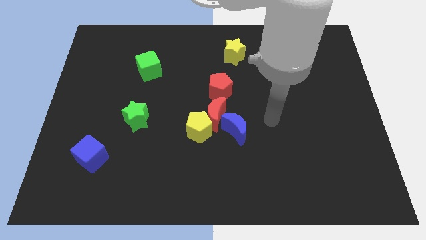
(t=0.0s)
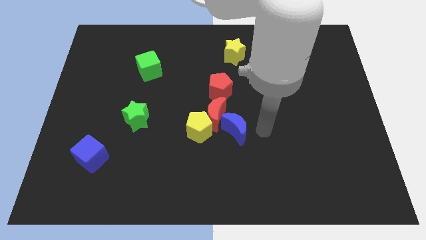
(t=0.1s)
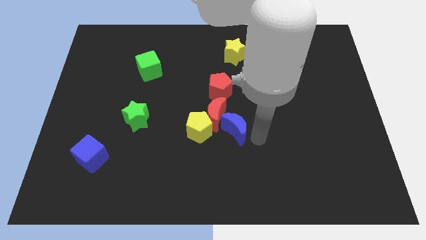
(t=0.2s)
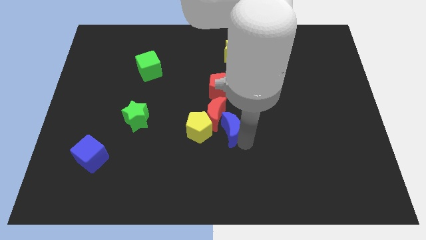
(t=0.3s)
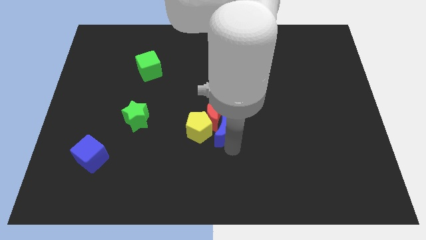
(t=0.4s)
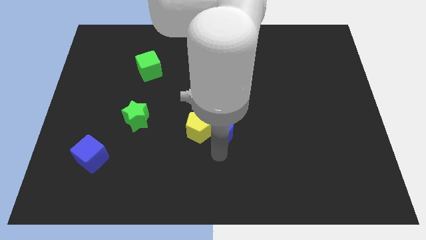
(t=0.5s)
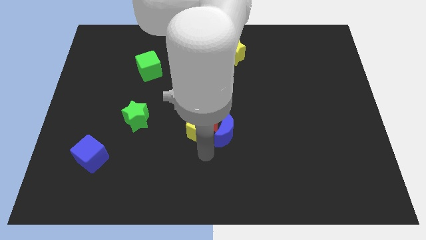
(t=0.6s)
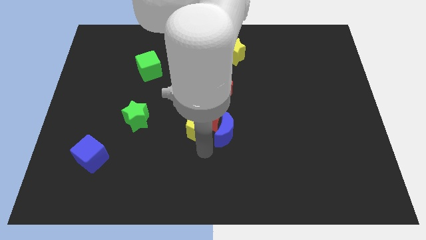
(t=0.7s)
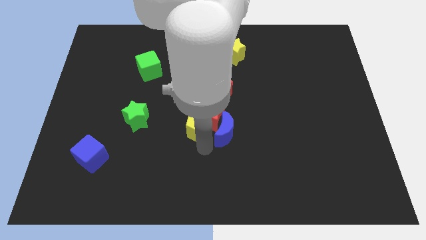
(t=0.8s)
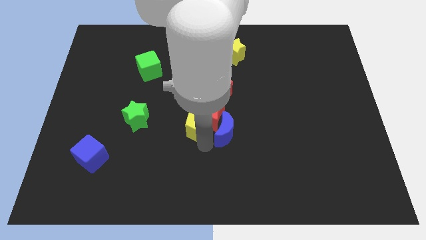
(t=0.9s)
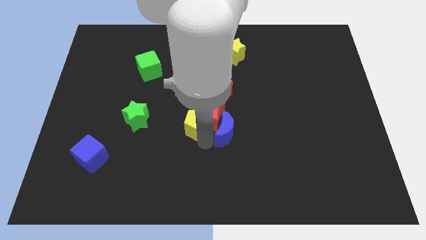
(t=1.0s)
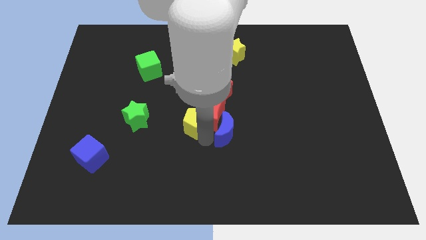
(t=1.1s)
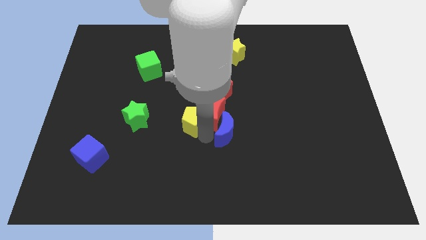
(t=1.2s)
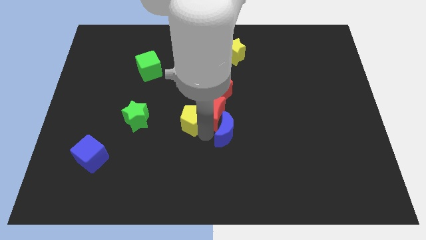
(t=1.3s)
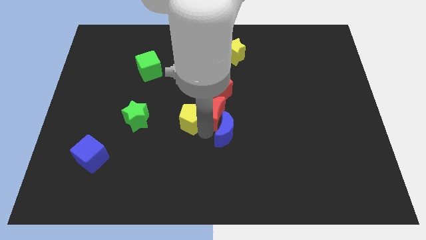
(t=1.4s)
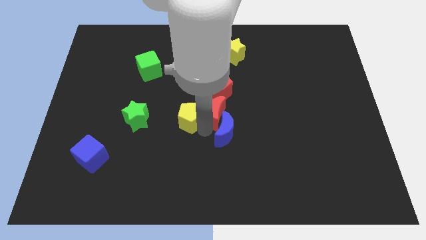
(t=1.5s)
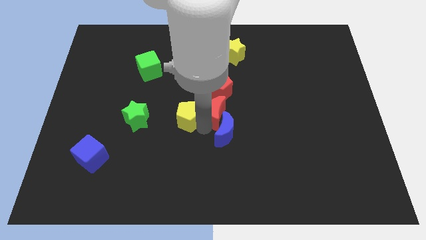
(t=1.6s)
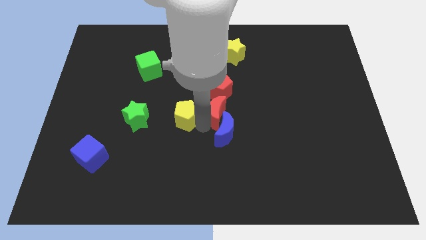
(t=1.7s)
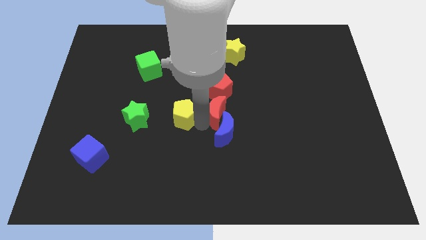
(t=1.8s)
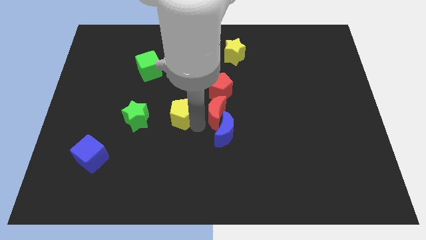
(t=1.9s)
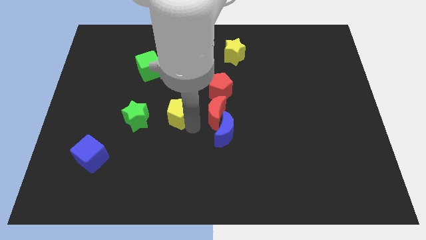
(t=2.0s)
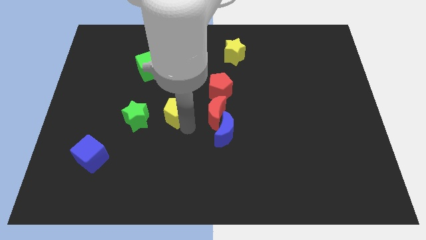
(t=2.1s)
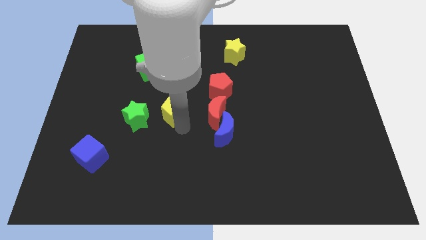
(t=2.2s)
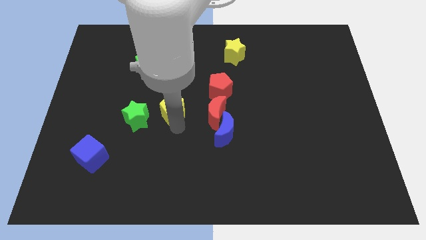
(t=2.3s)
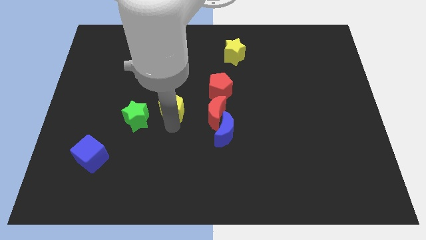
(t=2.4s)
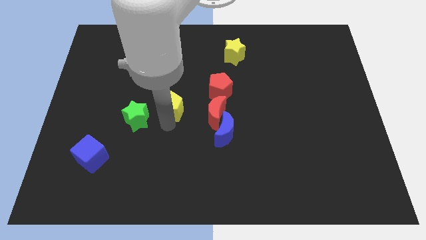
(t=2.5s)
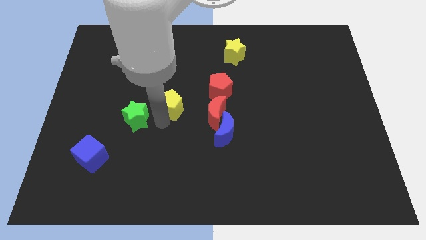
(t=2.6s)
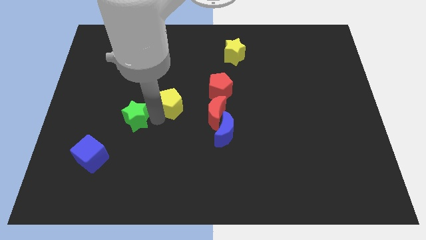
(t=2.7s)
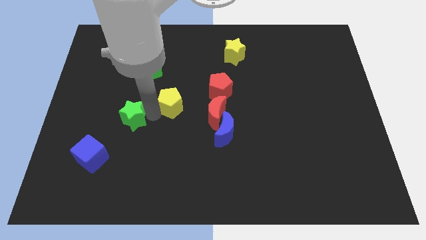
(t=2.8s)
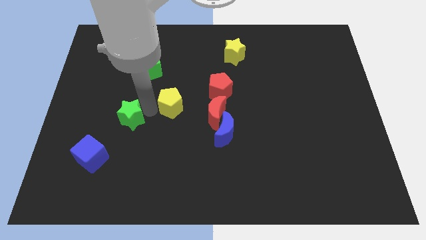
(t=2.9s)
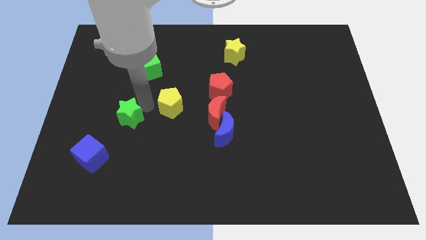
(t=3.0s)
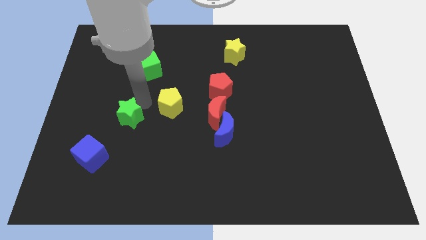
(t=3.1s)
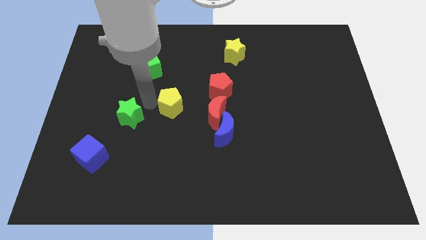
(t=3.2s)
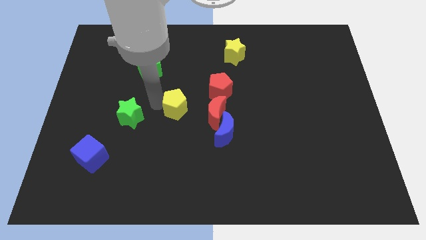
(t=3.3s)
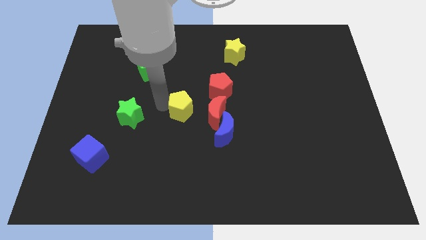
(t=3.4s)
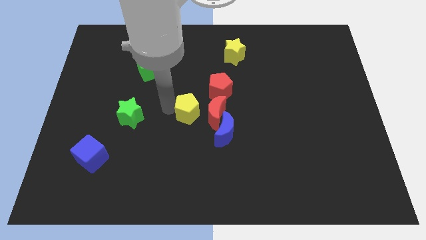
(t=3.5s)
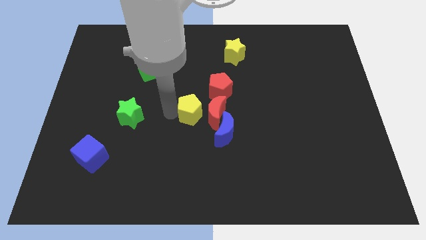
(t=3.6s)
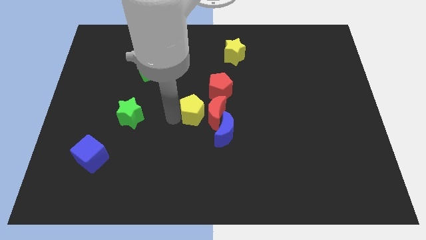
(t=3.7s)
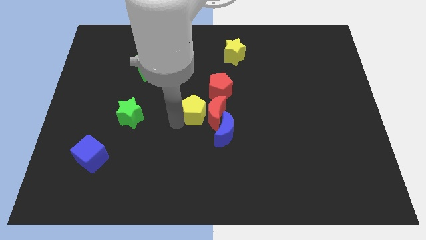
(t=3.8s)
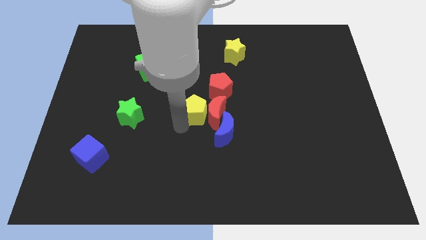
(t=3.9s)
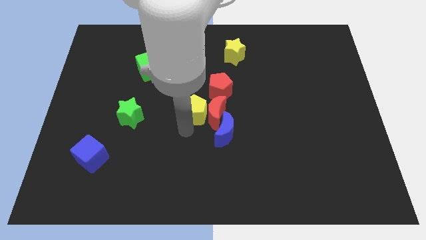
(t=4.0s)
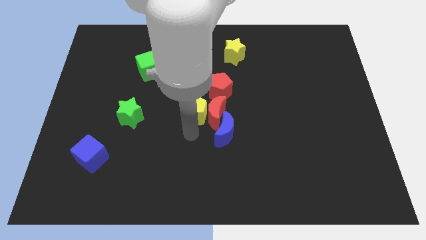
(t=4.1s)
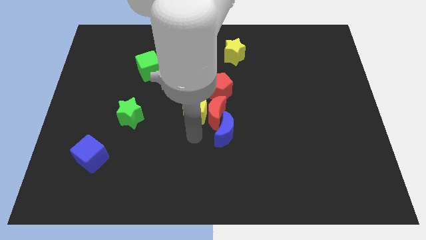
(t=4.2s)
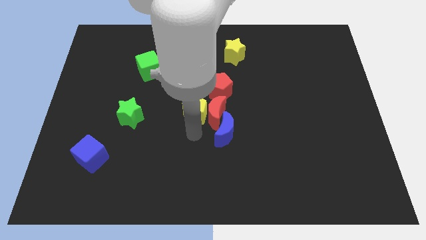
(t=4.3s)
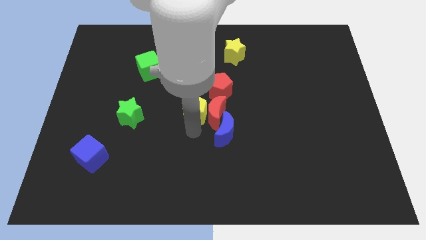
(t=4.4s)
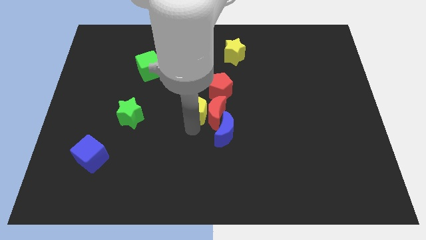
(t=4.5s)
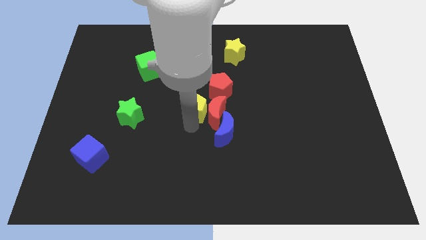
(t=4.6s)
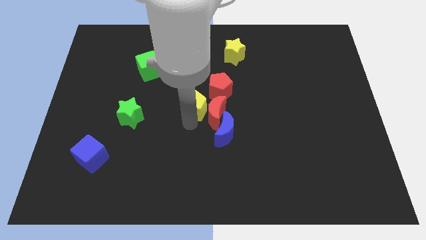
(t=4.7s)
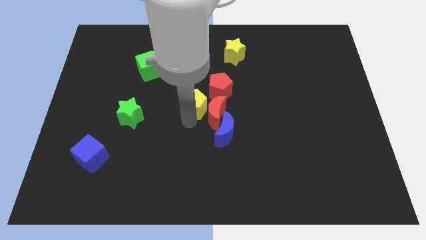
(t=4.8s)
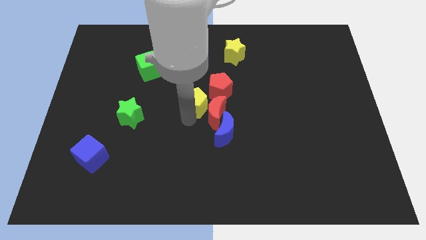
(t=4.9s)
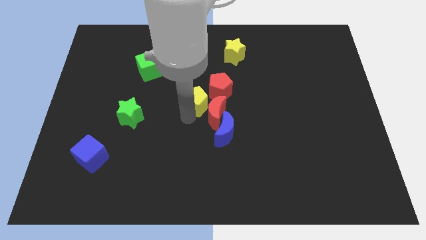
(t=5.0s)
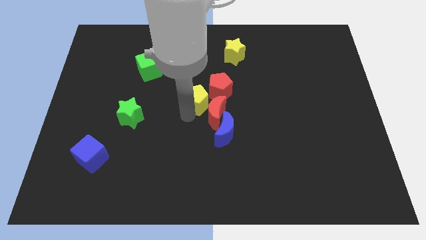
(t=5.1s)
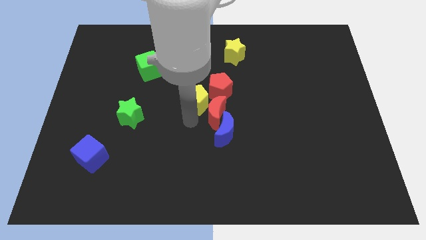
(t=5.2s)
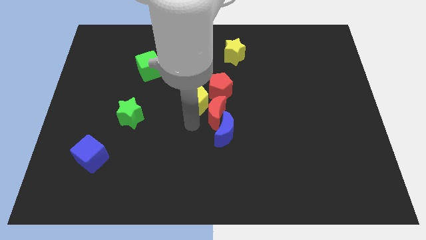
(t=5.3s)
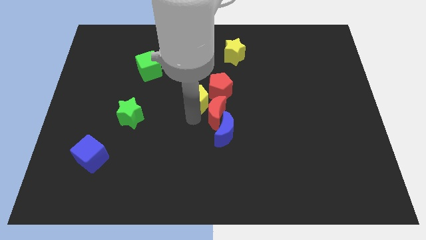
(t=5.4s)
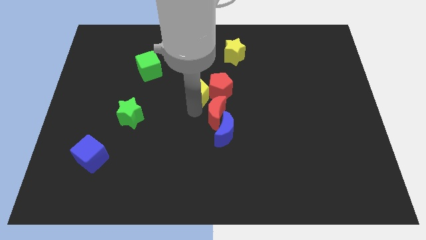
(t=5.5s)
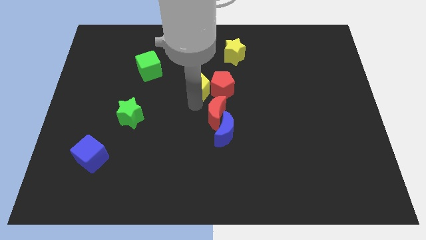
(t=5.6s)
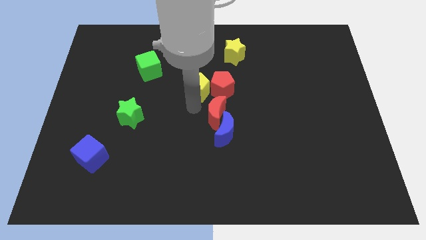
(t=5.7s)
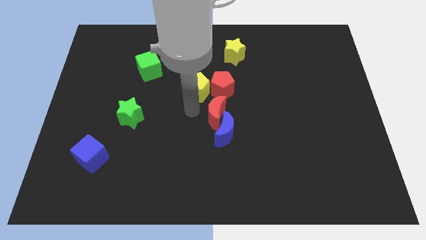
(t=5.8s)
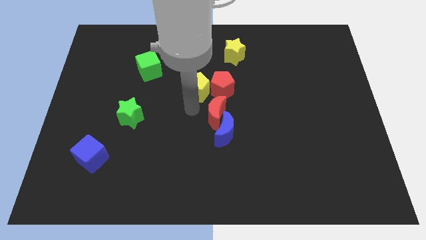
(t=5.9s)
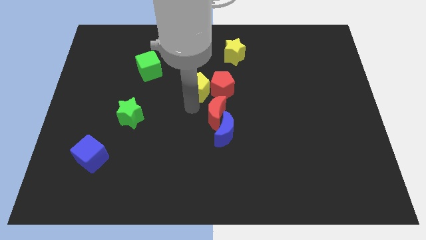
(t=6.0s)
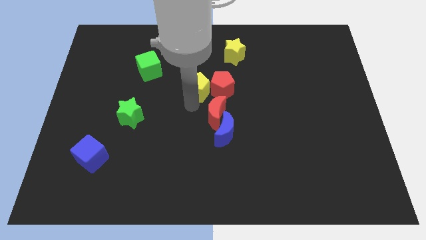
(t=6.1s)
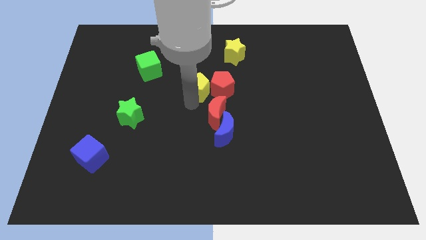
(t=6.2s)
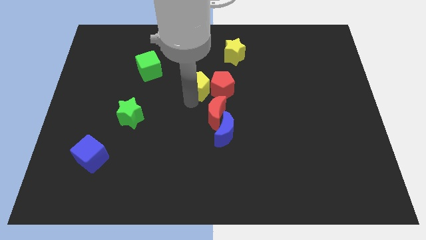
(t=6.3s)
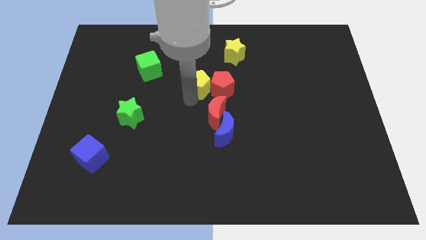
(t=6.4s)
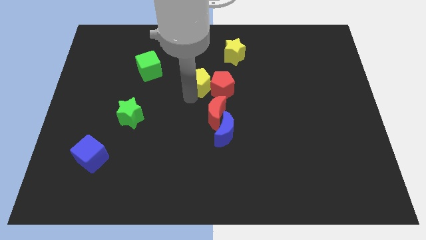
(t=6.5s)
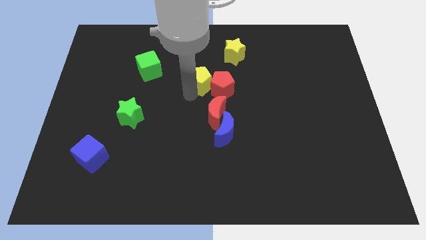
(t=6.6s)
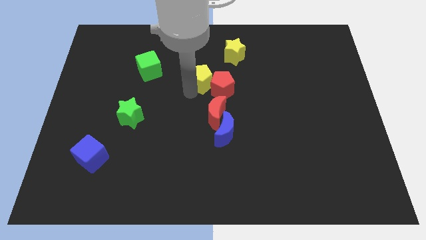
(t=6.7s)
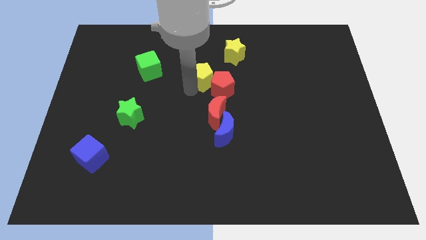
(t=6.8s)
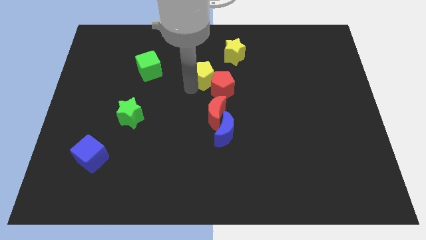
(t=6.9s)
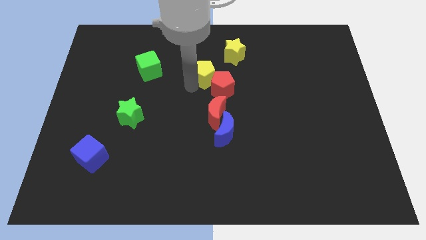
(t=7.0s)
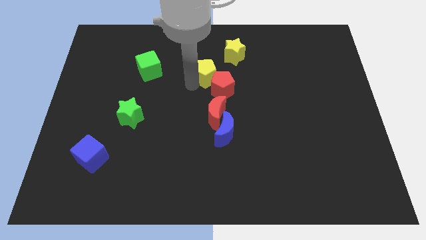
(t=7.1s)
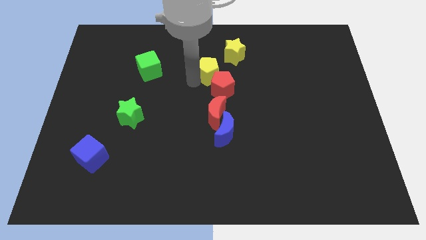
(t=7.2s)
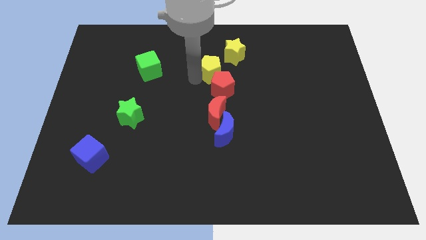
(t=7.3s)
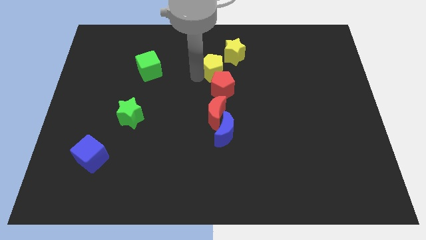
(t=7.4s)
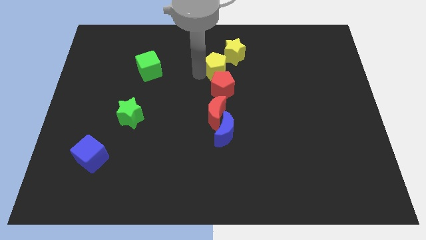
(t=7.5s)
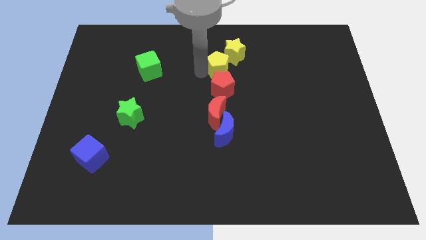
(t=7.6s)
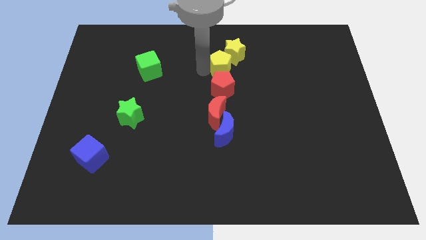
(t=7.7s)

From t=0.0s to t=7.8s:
put the yellow pentagon close to the yellow star
